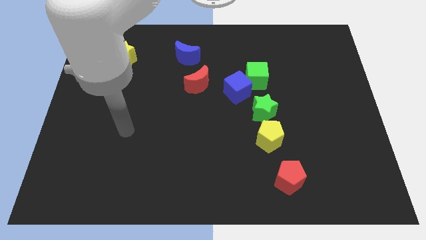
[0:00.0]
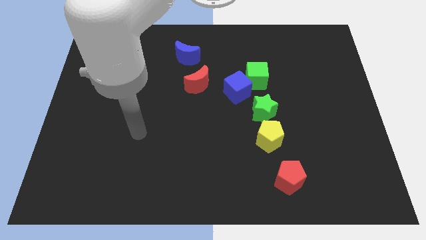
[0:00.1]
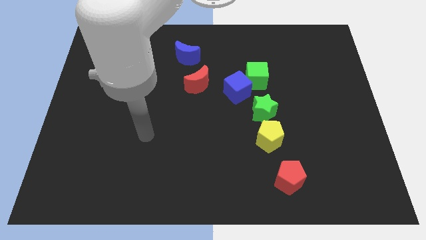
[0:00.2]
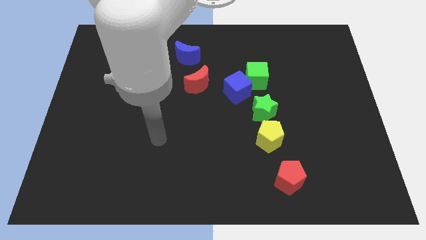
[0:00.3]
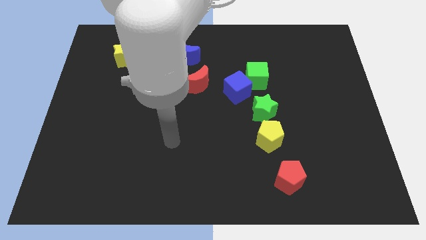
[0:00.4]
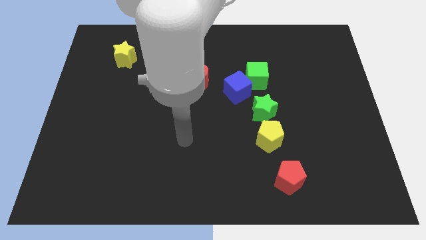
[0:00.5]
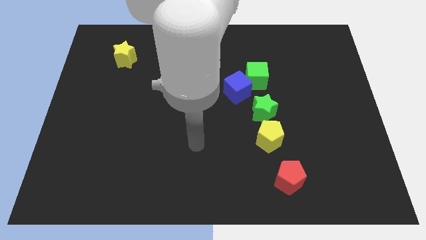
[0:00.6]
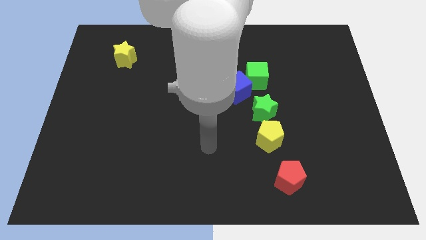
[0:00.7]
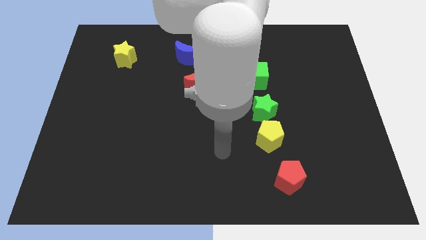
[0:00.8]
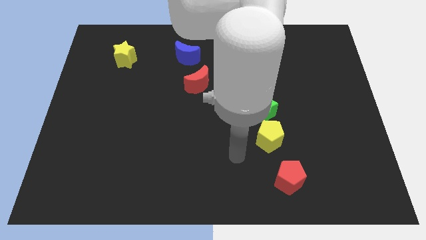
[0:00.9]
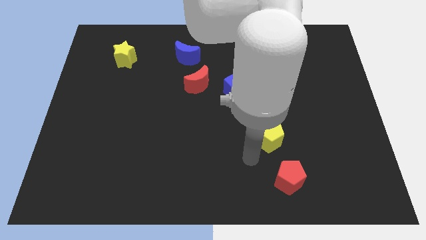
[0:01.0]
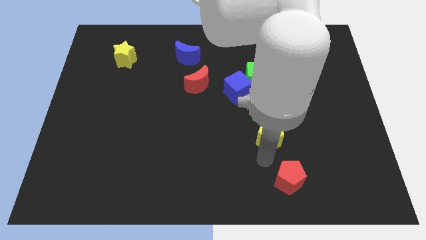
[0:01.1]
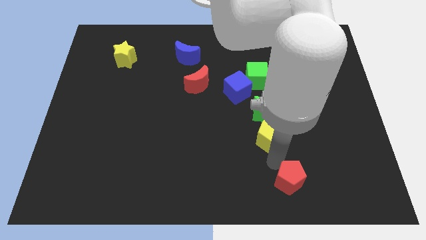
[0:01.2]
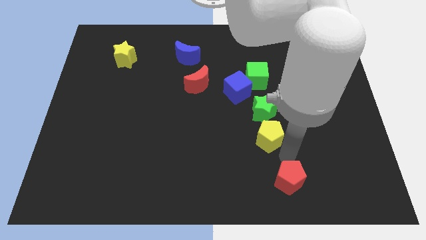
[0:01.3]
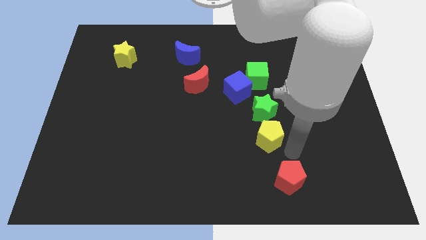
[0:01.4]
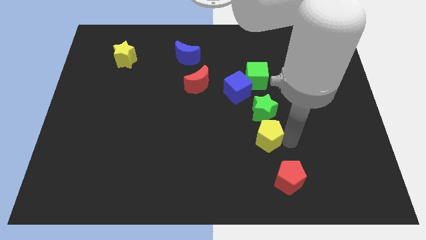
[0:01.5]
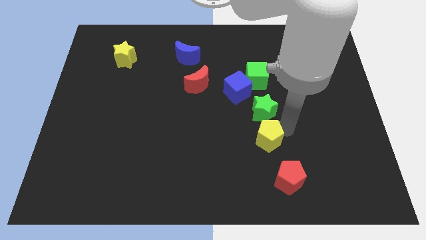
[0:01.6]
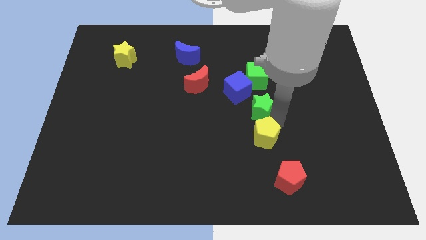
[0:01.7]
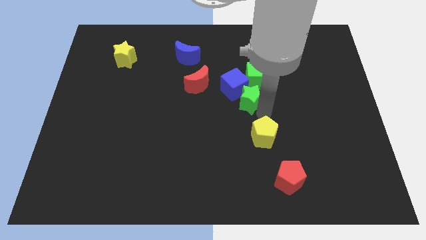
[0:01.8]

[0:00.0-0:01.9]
pull the yellow pentagon apart from the green star

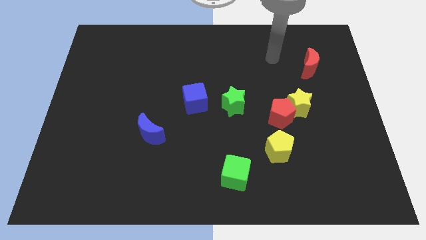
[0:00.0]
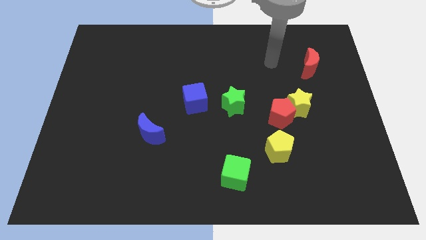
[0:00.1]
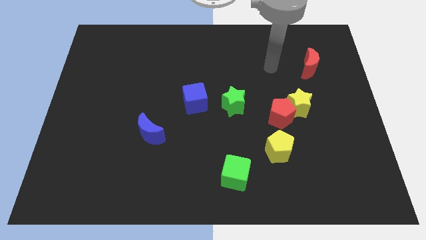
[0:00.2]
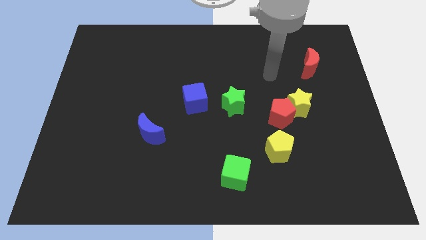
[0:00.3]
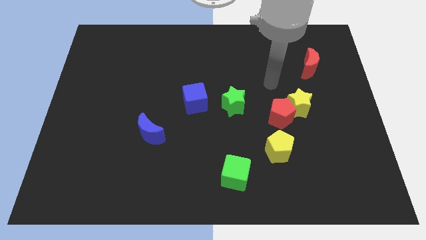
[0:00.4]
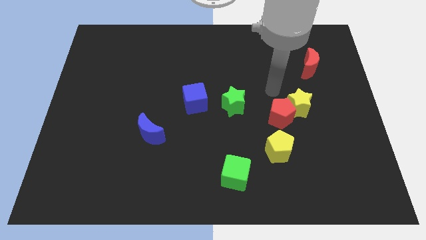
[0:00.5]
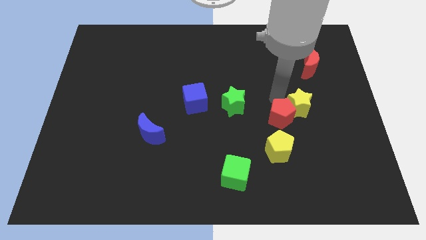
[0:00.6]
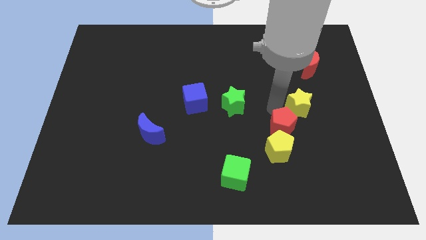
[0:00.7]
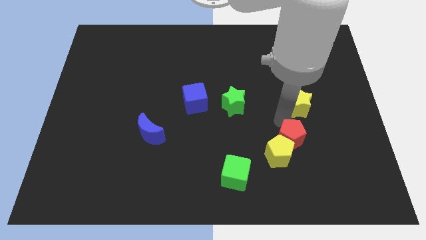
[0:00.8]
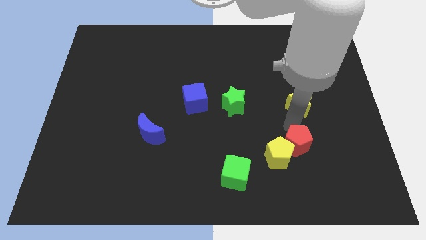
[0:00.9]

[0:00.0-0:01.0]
move the yellow star away from the red pentagon

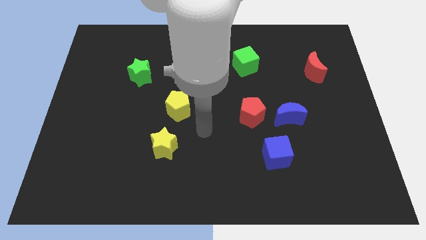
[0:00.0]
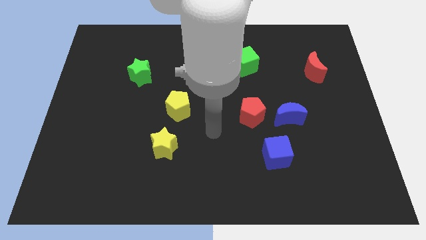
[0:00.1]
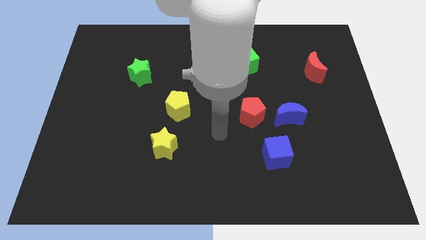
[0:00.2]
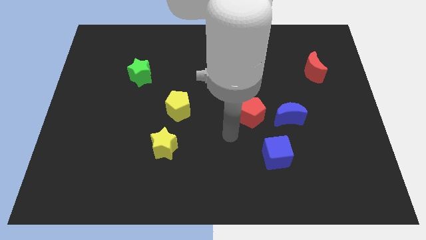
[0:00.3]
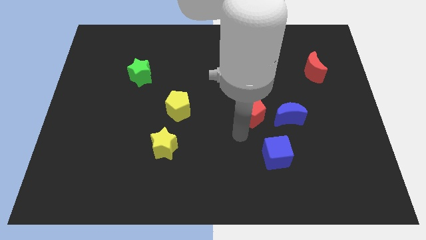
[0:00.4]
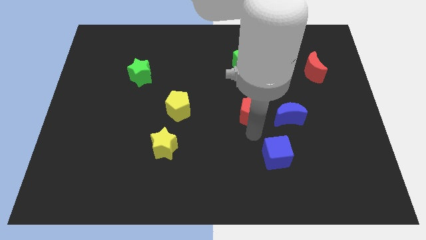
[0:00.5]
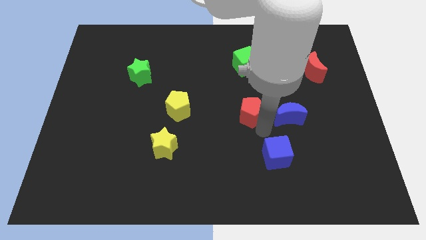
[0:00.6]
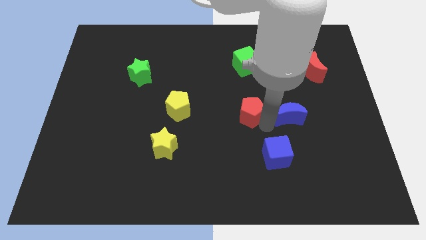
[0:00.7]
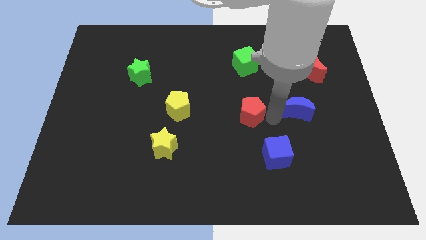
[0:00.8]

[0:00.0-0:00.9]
move the red pentagon away from the blue moon

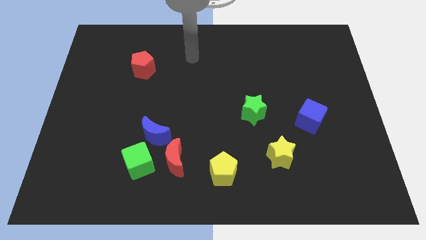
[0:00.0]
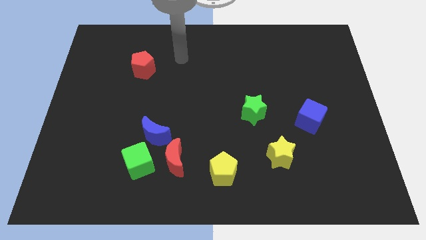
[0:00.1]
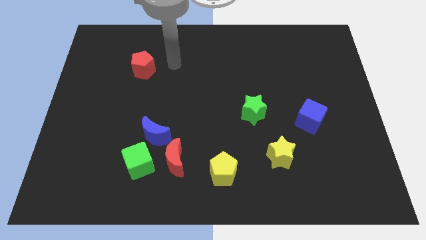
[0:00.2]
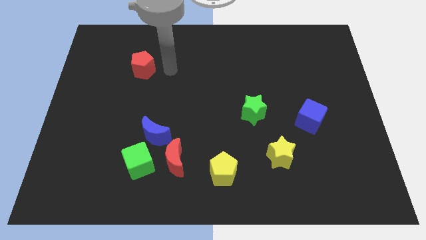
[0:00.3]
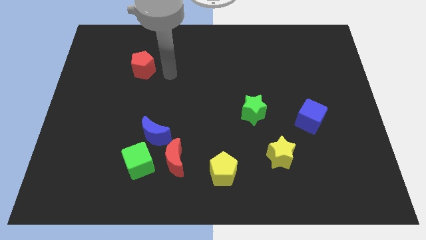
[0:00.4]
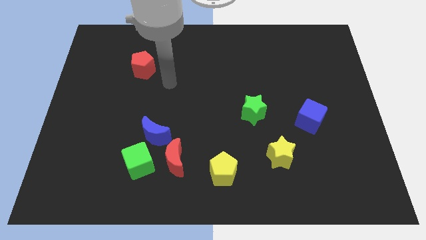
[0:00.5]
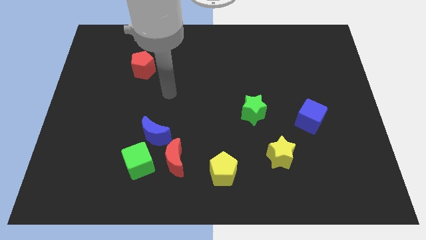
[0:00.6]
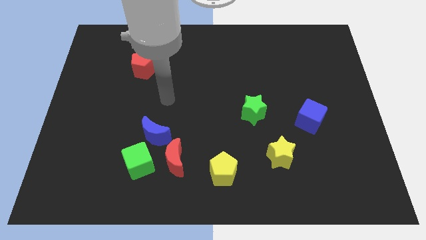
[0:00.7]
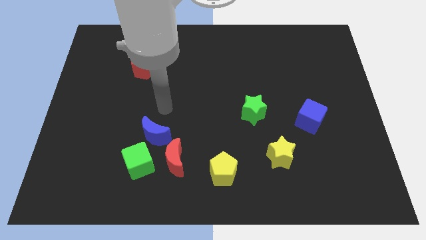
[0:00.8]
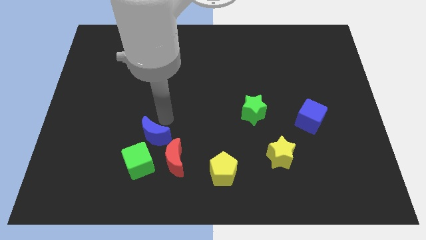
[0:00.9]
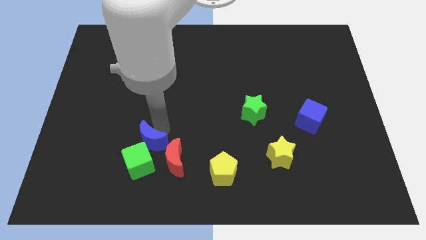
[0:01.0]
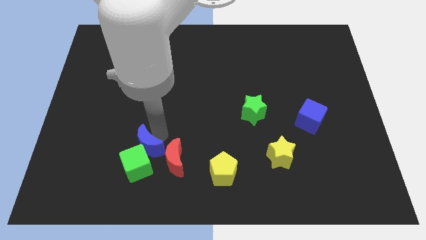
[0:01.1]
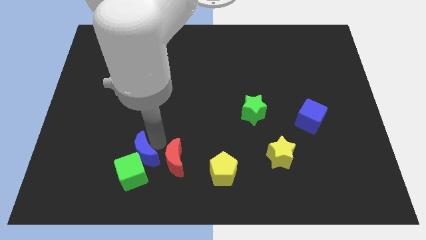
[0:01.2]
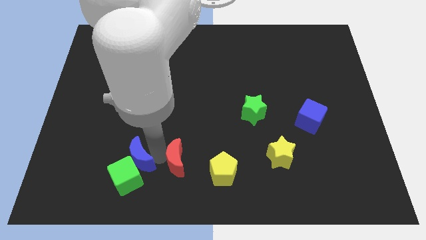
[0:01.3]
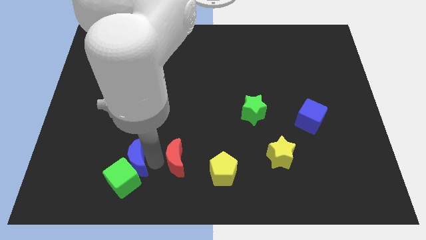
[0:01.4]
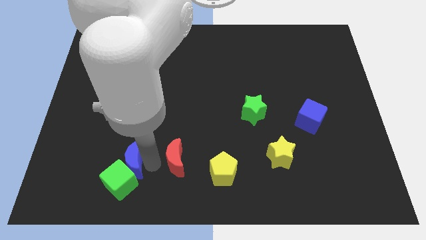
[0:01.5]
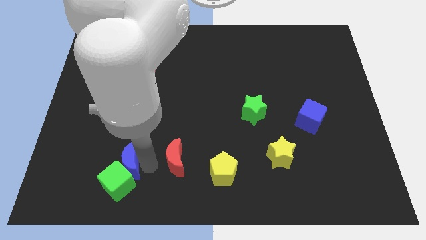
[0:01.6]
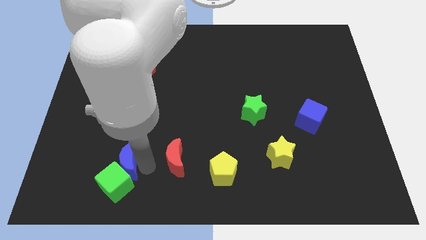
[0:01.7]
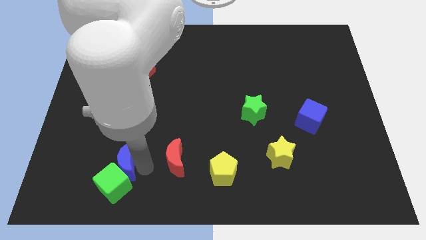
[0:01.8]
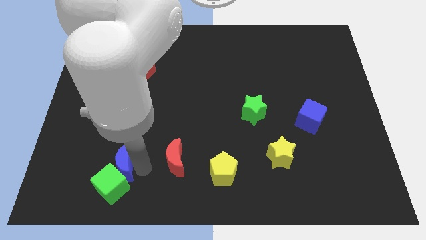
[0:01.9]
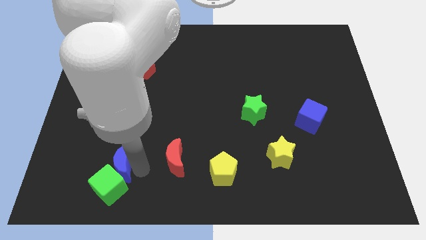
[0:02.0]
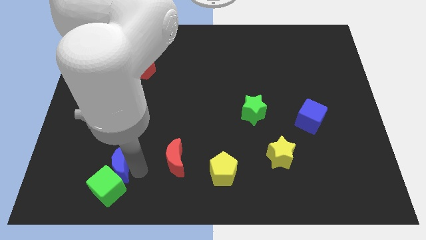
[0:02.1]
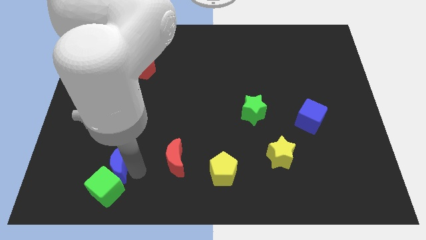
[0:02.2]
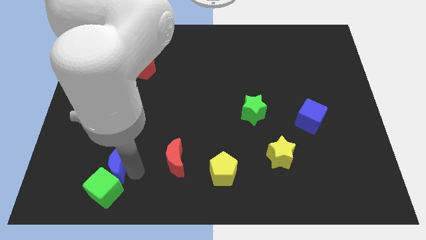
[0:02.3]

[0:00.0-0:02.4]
pull the green cube apart from the red moon and blue moon

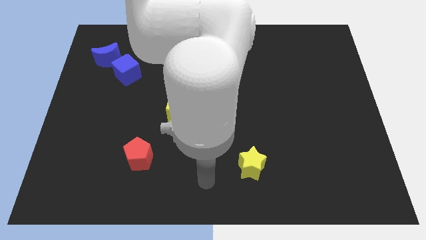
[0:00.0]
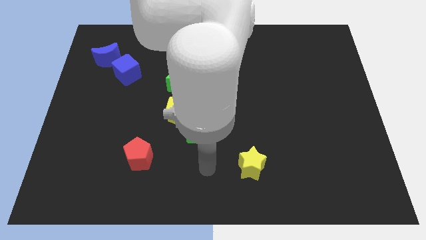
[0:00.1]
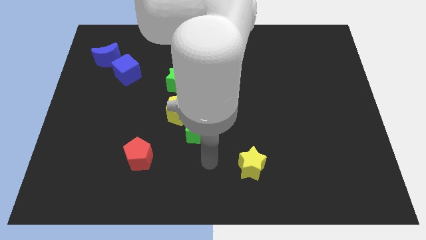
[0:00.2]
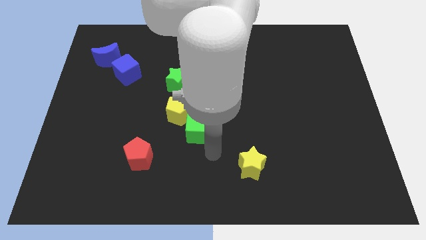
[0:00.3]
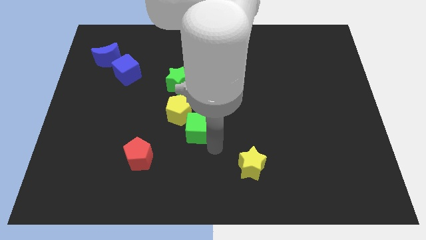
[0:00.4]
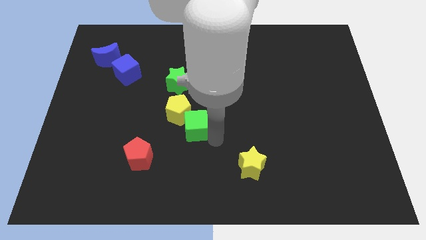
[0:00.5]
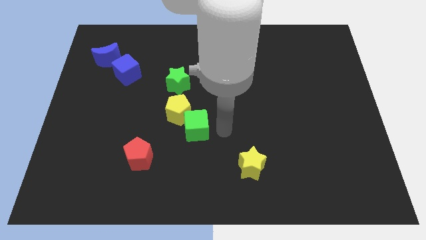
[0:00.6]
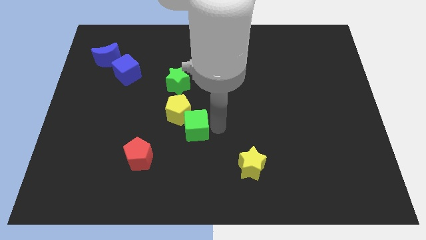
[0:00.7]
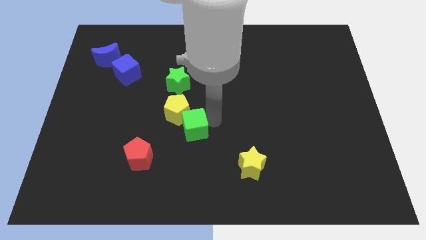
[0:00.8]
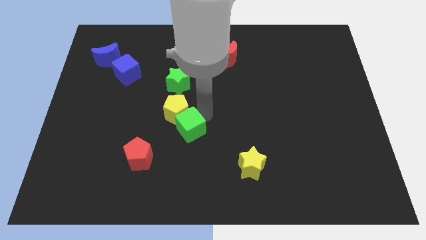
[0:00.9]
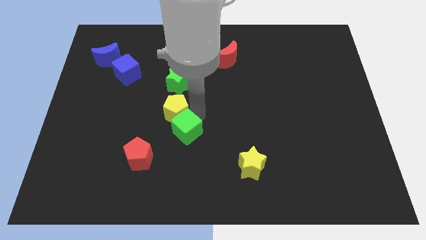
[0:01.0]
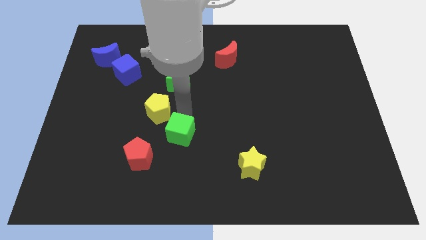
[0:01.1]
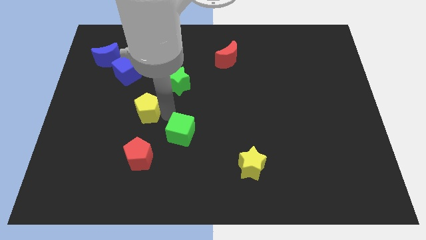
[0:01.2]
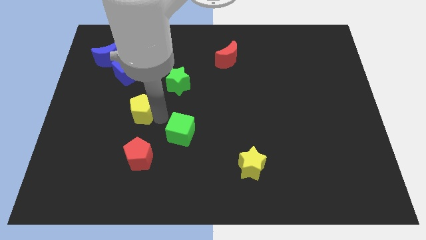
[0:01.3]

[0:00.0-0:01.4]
move the green cube away from the yellow pentagon

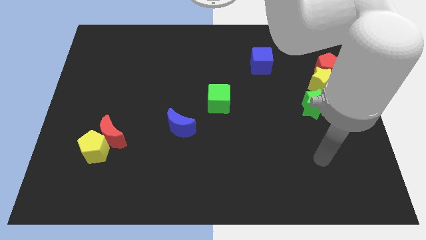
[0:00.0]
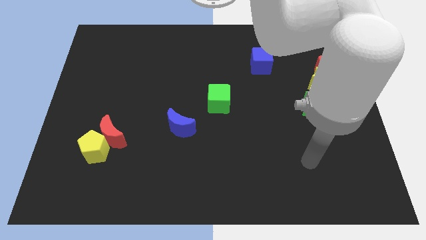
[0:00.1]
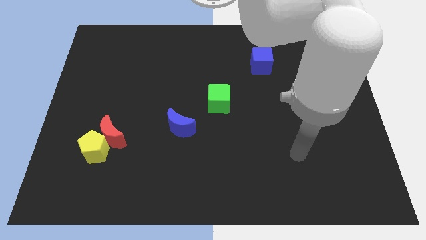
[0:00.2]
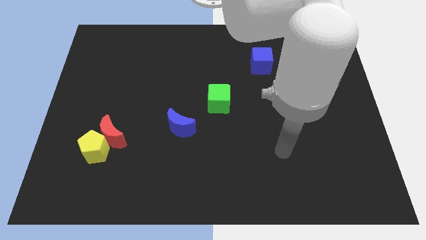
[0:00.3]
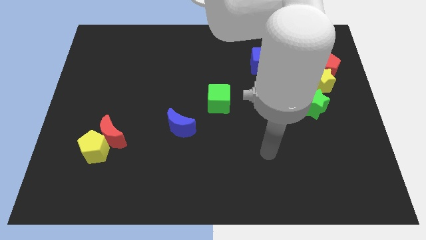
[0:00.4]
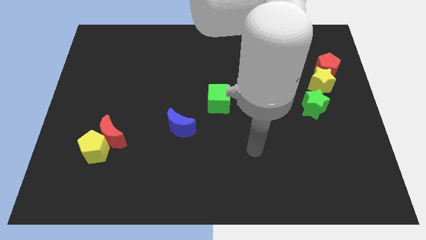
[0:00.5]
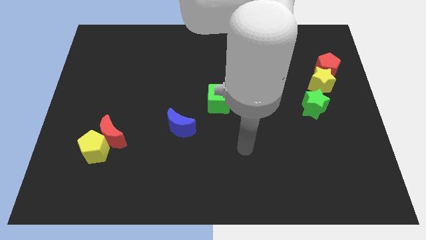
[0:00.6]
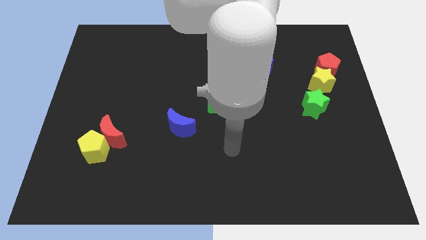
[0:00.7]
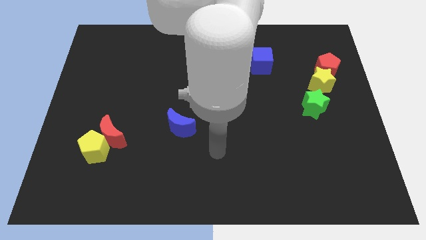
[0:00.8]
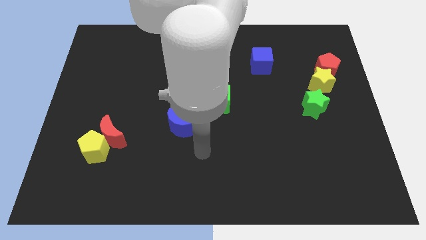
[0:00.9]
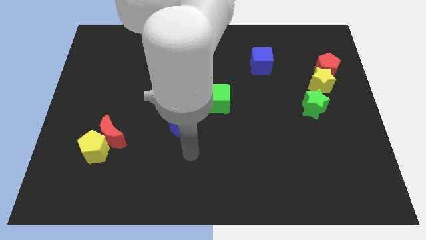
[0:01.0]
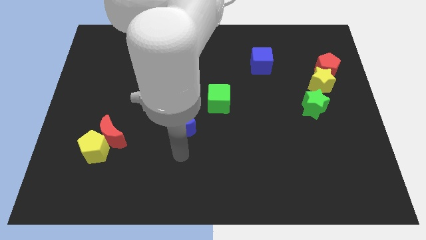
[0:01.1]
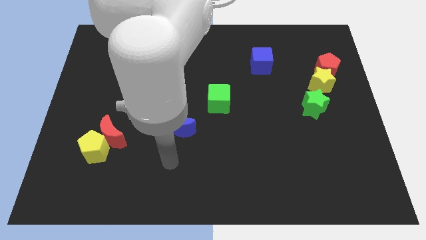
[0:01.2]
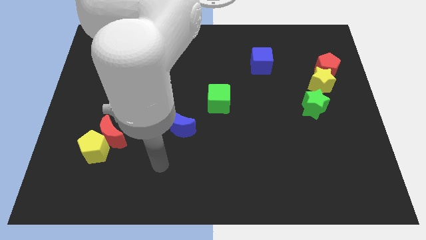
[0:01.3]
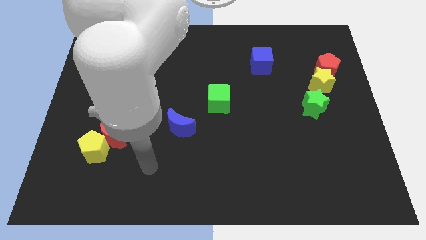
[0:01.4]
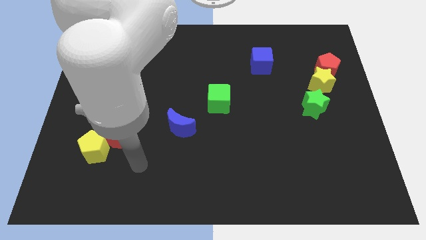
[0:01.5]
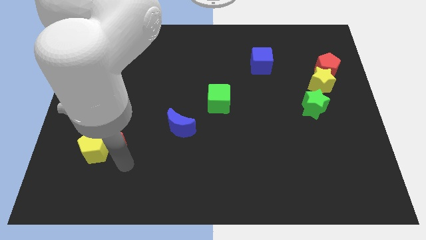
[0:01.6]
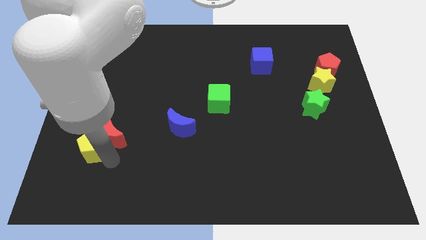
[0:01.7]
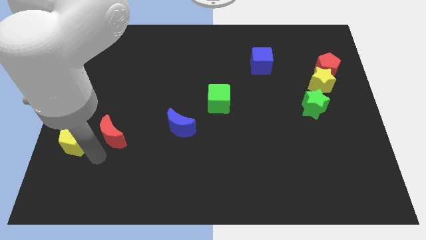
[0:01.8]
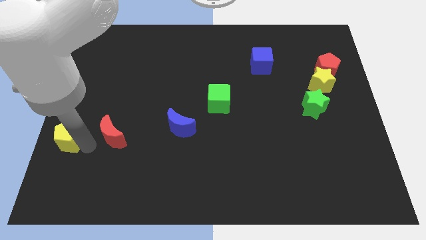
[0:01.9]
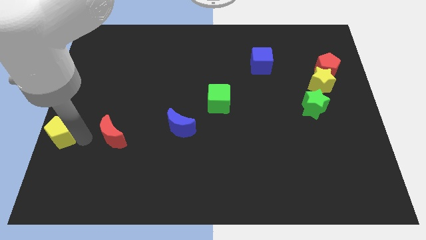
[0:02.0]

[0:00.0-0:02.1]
separate the red moon from the yellow pentagon
